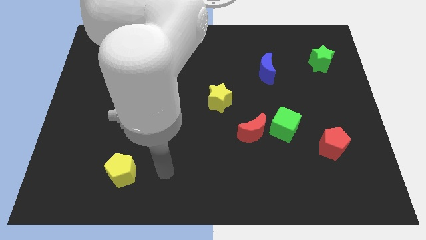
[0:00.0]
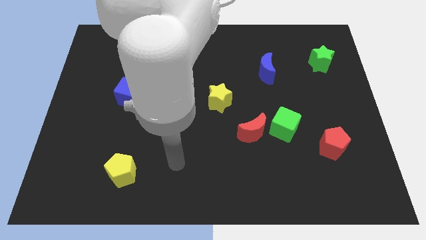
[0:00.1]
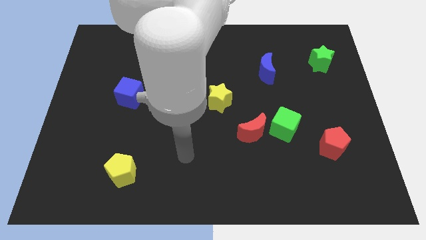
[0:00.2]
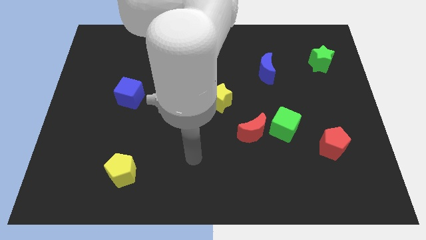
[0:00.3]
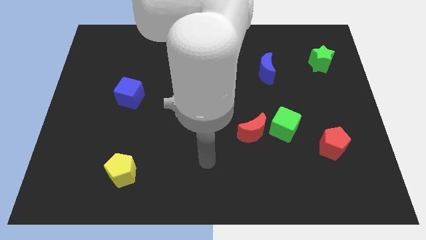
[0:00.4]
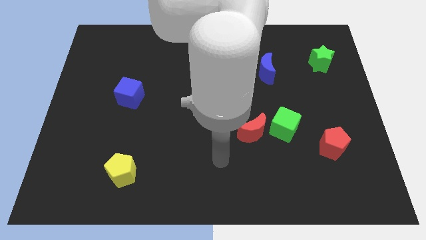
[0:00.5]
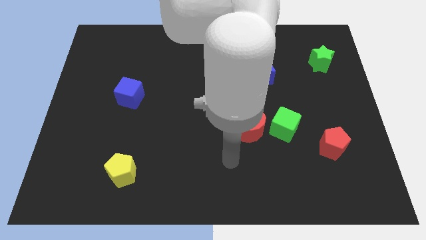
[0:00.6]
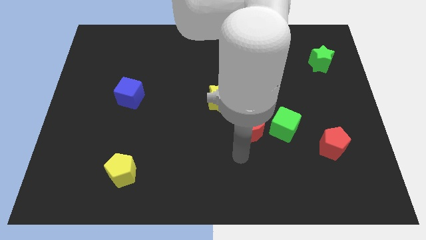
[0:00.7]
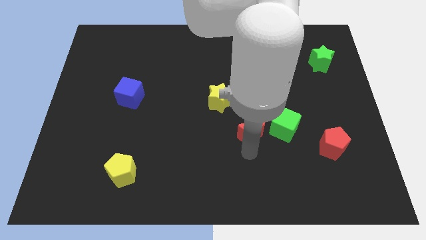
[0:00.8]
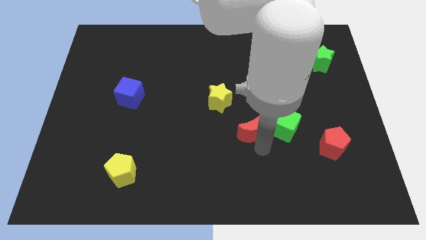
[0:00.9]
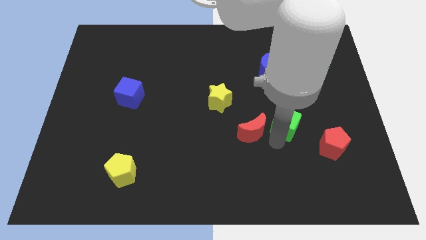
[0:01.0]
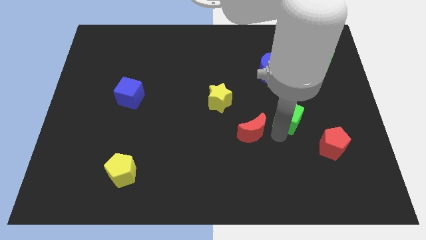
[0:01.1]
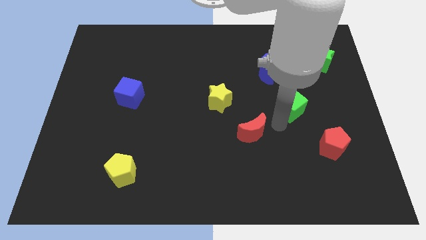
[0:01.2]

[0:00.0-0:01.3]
pull the red moon apart from the green cube

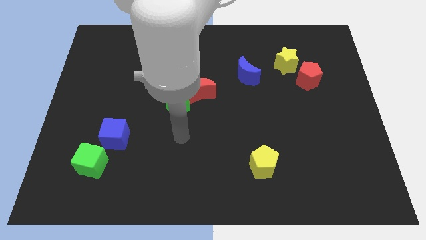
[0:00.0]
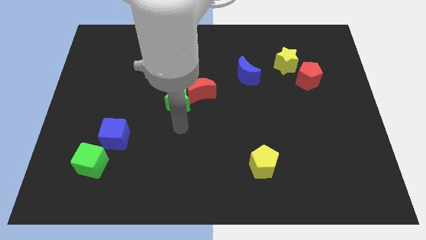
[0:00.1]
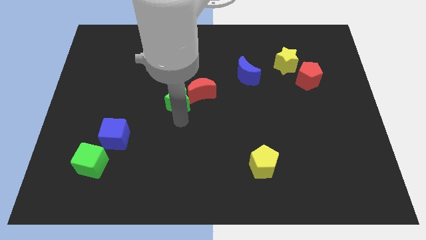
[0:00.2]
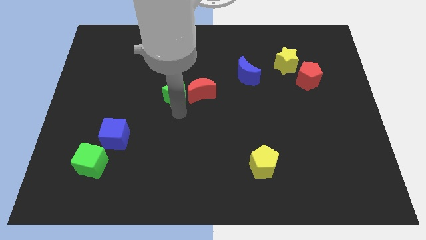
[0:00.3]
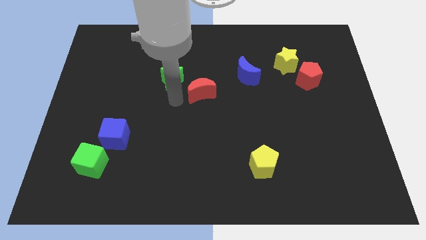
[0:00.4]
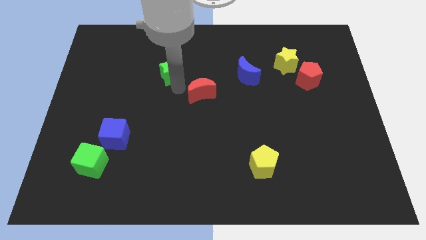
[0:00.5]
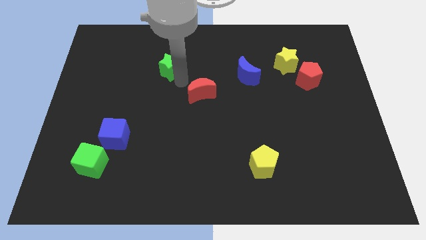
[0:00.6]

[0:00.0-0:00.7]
pull the red moon apart from the green star

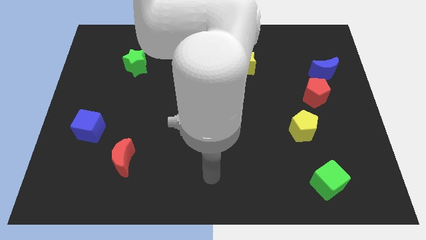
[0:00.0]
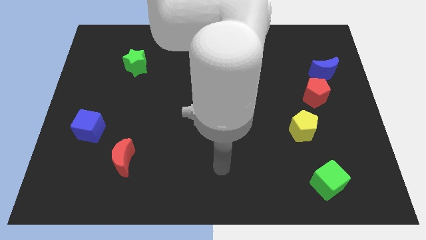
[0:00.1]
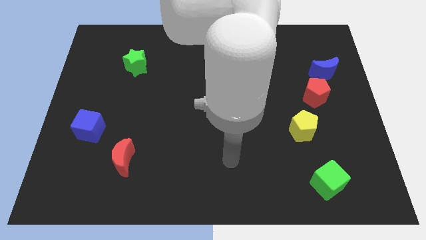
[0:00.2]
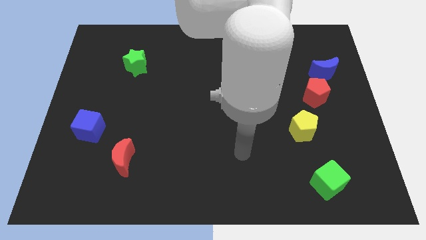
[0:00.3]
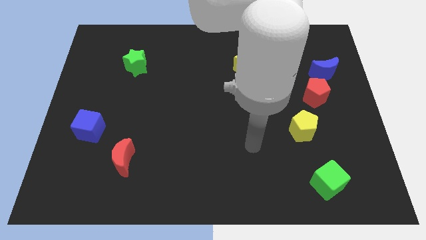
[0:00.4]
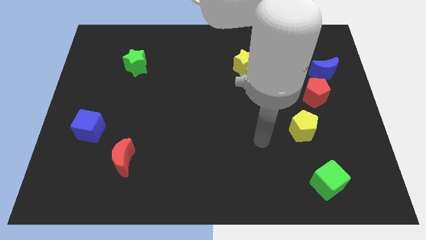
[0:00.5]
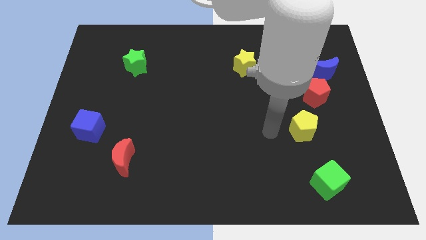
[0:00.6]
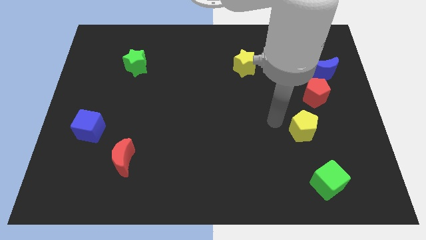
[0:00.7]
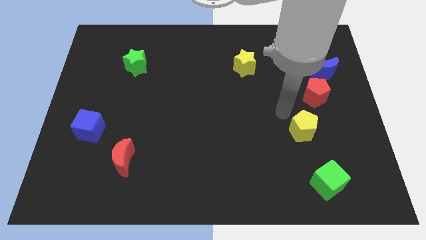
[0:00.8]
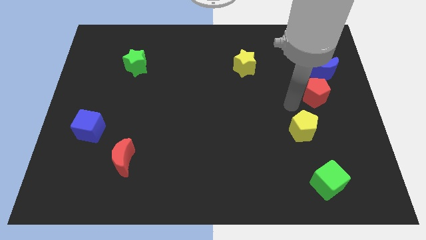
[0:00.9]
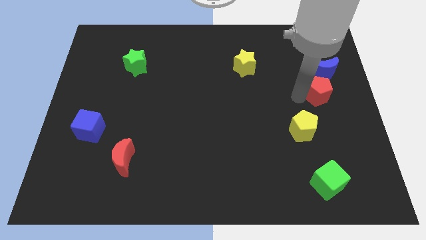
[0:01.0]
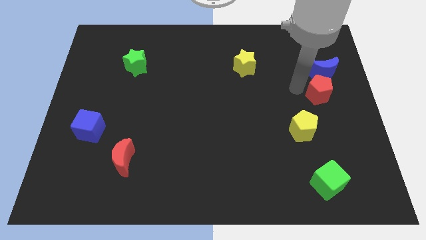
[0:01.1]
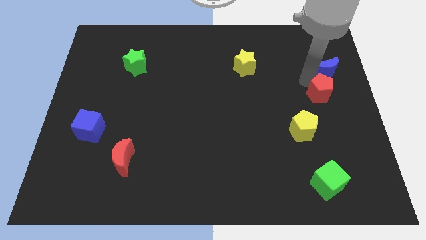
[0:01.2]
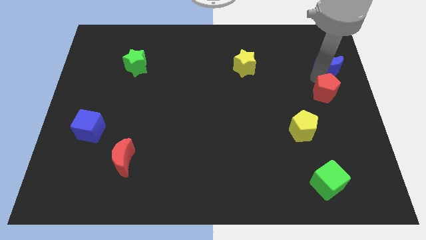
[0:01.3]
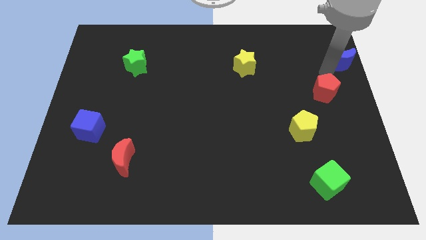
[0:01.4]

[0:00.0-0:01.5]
move the red pentagon away from the blue moon

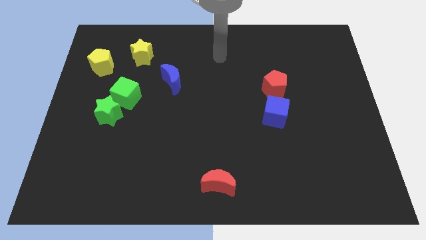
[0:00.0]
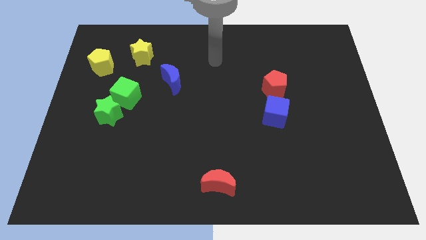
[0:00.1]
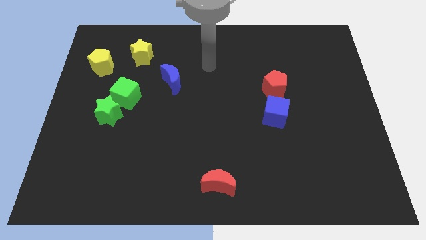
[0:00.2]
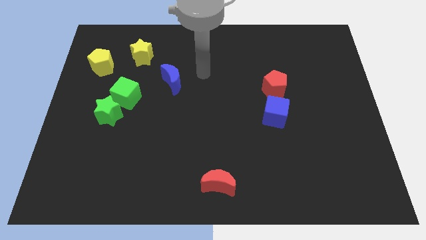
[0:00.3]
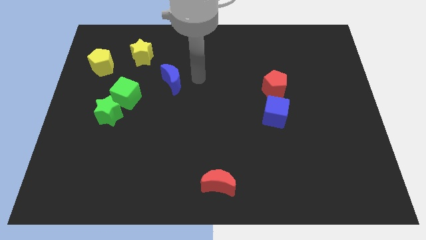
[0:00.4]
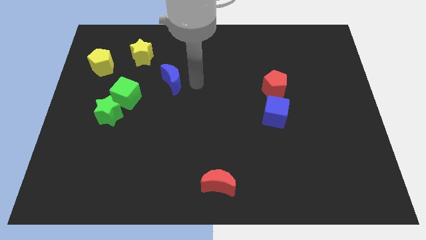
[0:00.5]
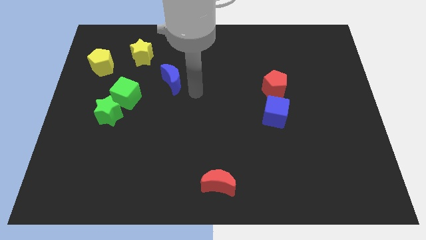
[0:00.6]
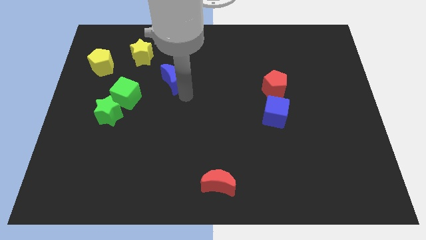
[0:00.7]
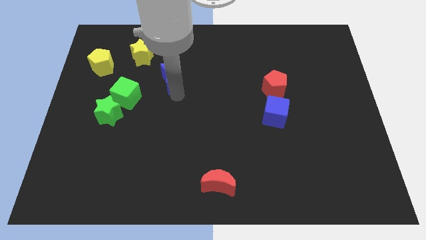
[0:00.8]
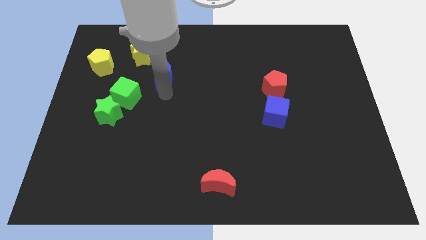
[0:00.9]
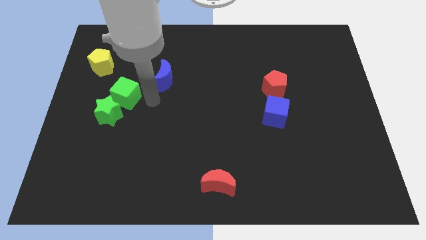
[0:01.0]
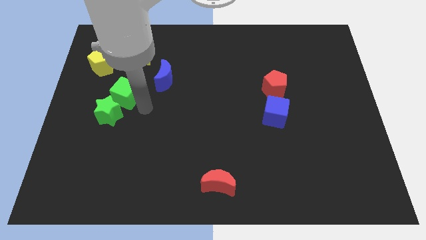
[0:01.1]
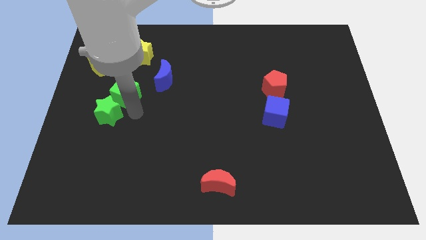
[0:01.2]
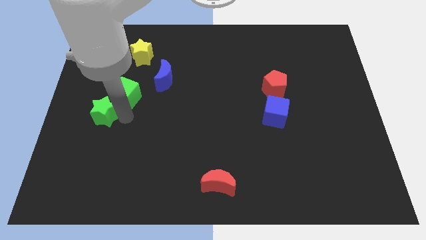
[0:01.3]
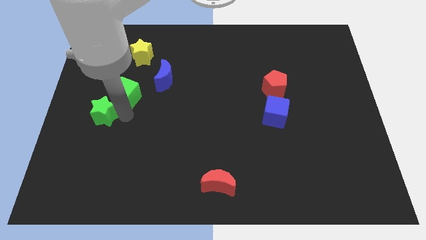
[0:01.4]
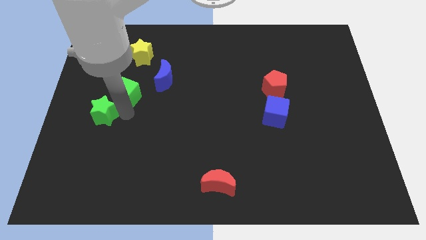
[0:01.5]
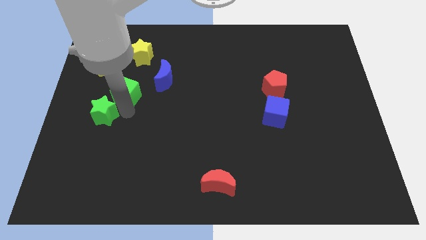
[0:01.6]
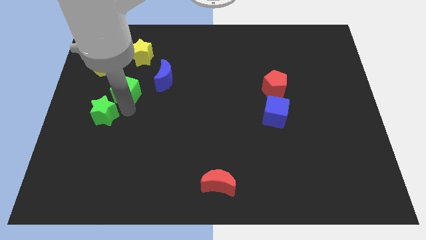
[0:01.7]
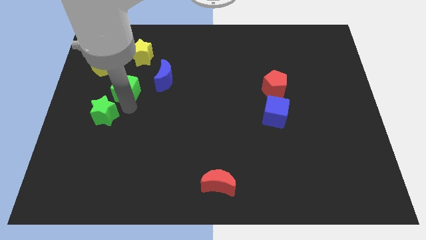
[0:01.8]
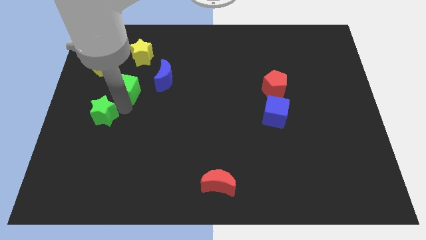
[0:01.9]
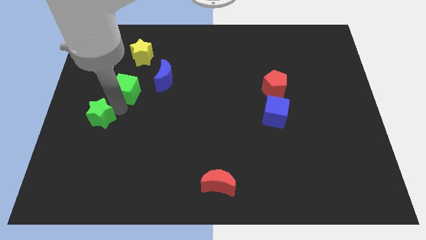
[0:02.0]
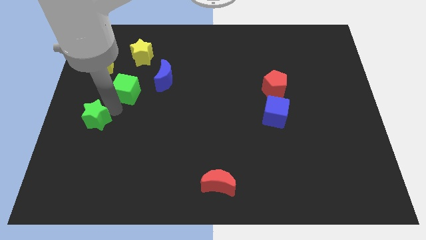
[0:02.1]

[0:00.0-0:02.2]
move the green cube away from the green star

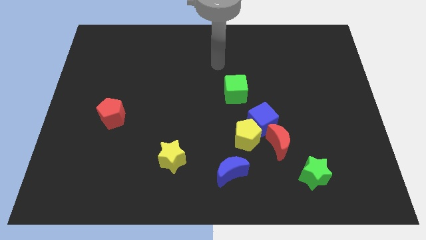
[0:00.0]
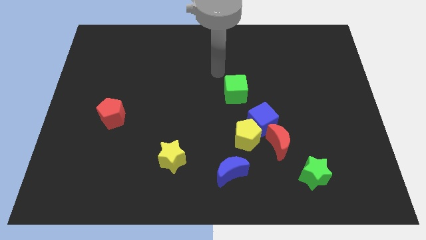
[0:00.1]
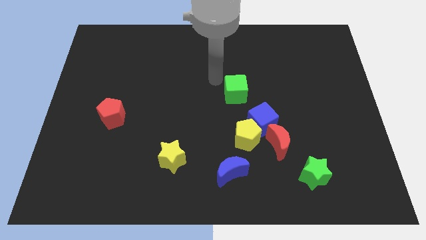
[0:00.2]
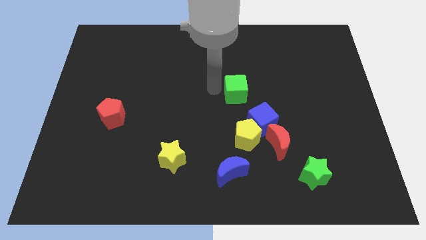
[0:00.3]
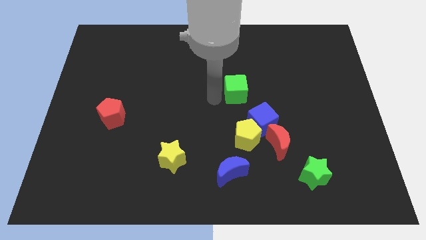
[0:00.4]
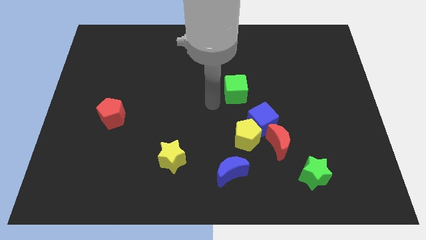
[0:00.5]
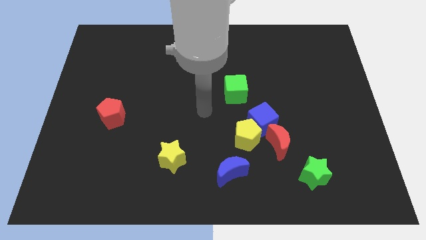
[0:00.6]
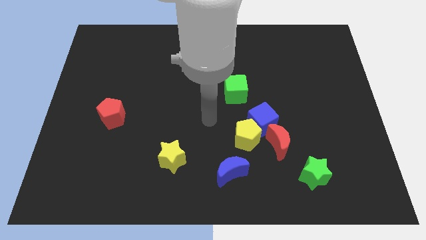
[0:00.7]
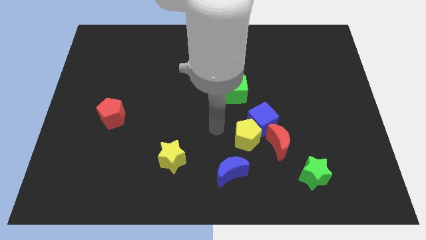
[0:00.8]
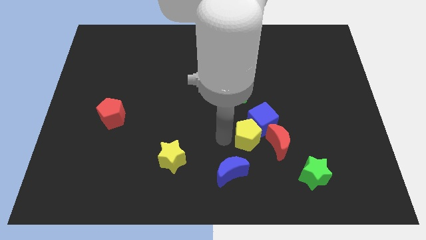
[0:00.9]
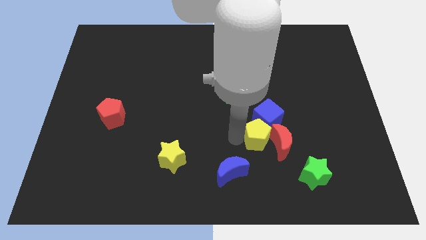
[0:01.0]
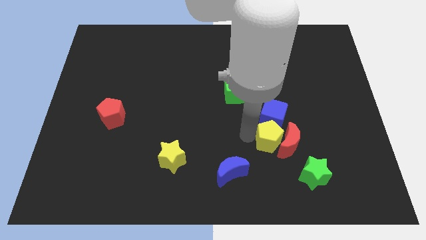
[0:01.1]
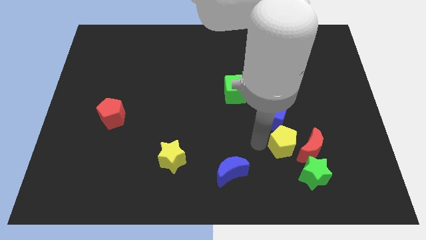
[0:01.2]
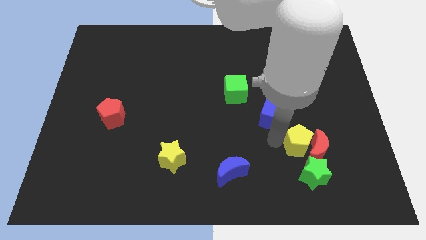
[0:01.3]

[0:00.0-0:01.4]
separate the blue cube from the yellow pentagon and red moon

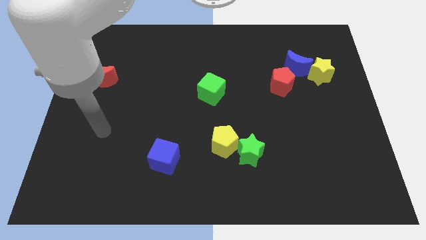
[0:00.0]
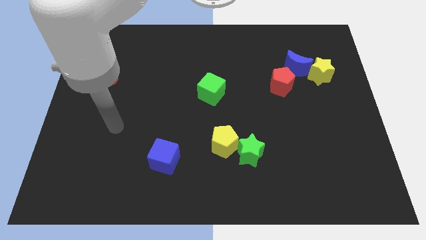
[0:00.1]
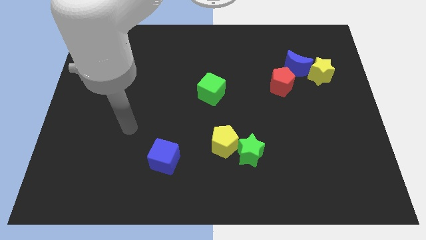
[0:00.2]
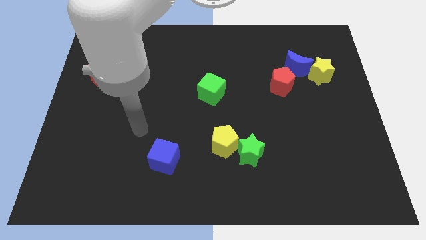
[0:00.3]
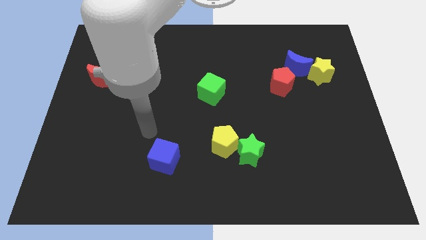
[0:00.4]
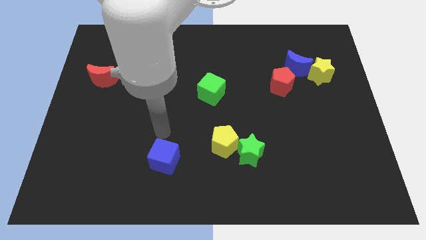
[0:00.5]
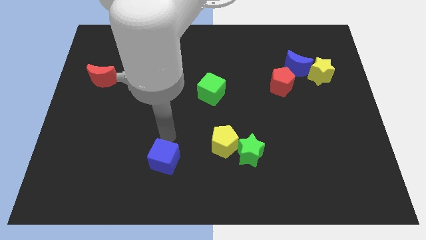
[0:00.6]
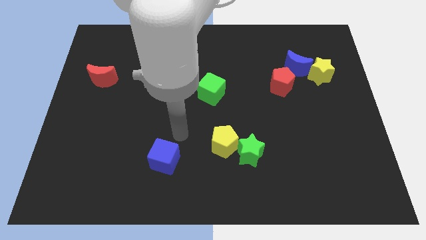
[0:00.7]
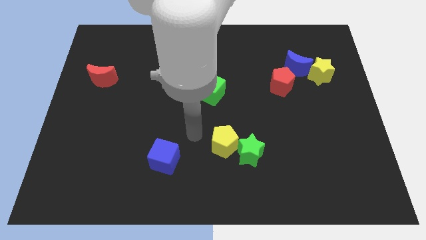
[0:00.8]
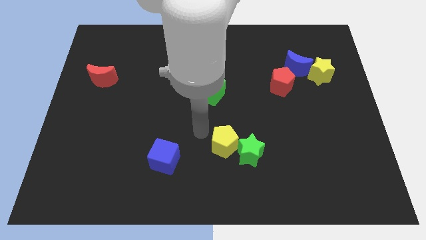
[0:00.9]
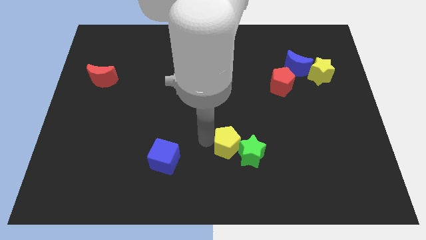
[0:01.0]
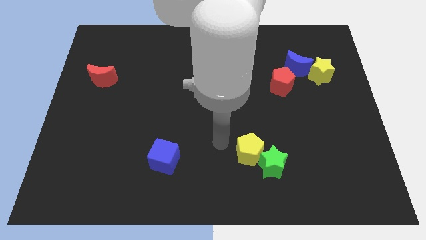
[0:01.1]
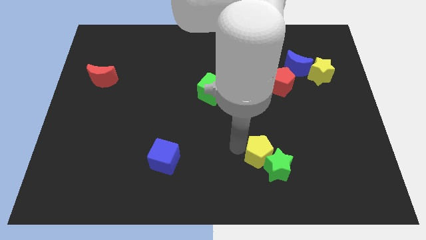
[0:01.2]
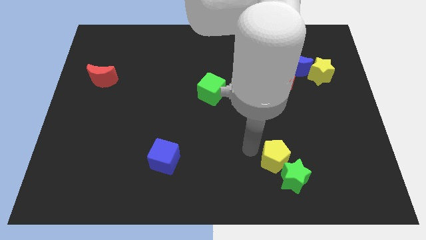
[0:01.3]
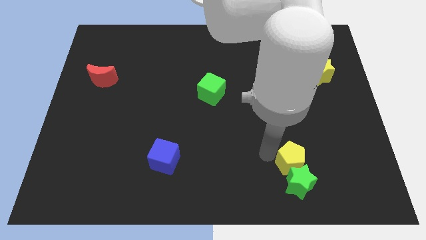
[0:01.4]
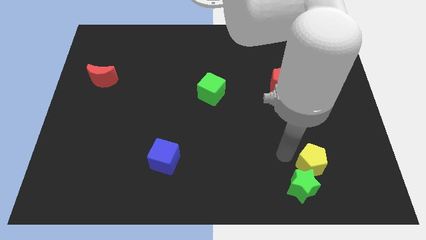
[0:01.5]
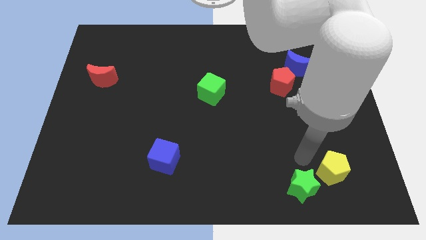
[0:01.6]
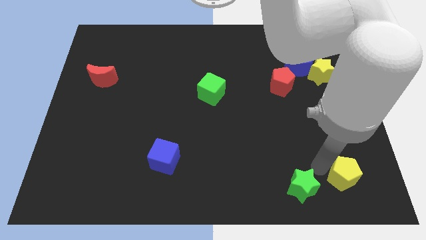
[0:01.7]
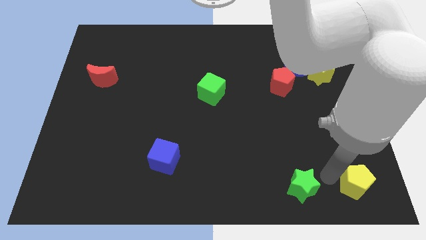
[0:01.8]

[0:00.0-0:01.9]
pull the green star apart from the yellow pentagon

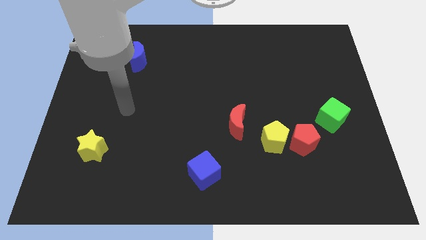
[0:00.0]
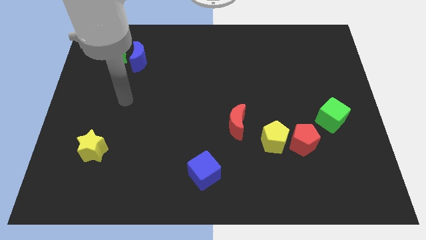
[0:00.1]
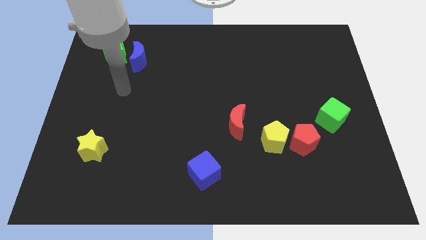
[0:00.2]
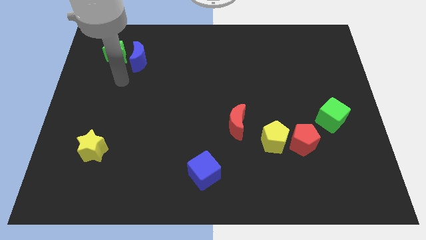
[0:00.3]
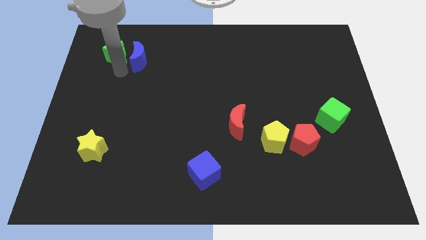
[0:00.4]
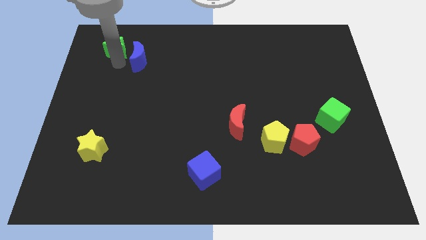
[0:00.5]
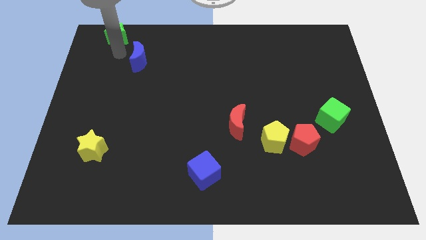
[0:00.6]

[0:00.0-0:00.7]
separate the blue moon from the green star
